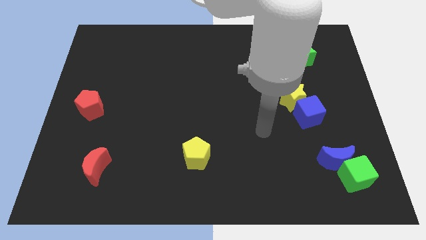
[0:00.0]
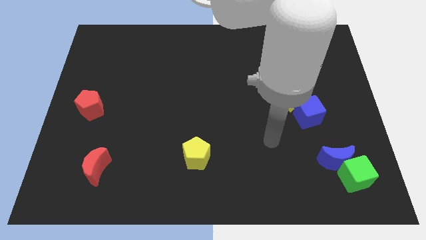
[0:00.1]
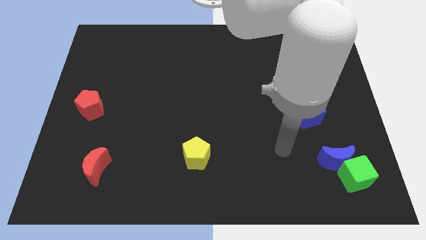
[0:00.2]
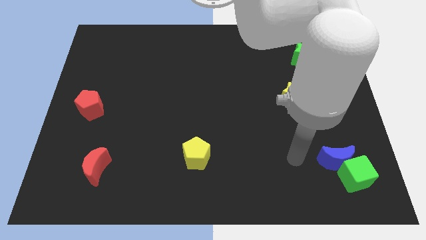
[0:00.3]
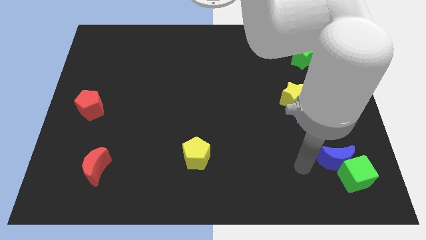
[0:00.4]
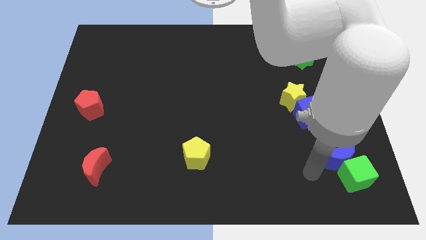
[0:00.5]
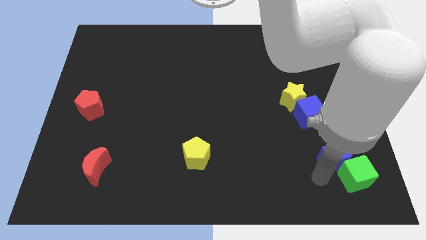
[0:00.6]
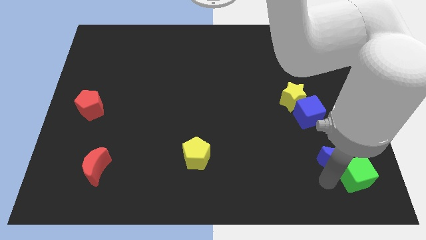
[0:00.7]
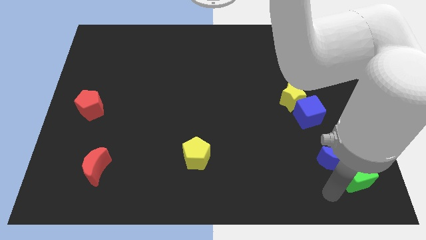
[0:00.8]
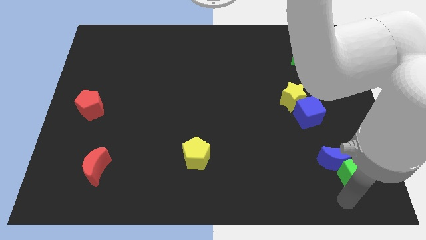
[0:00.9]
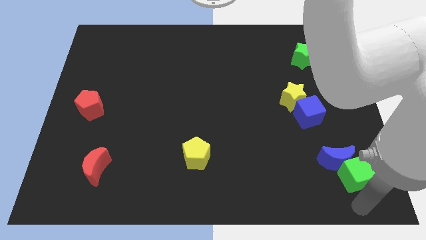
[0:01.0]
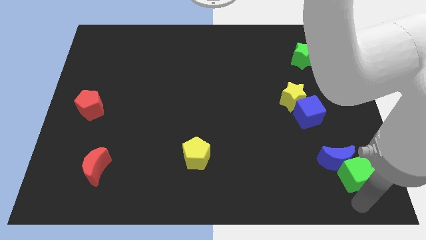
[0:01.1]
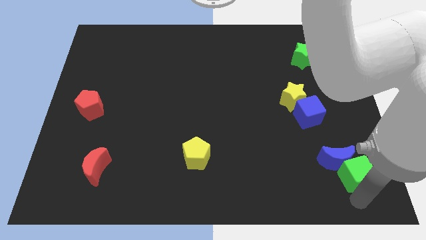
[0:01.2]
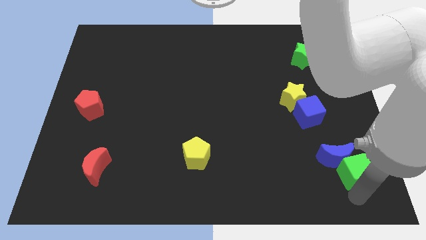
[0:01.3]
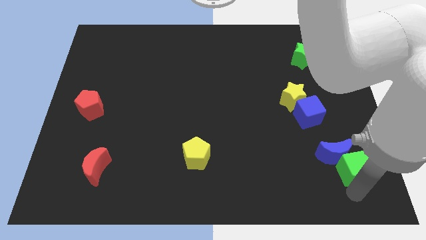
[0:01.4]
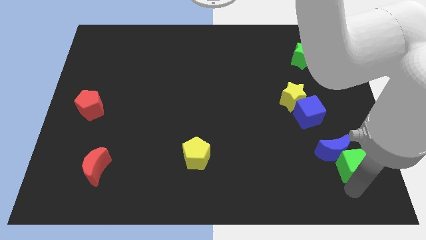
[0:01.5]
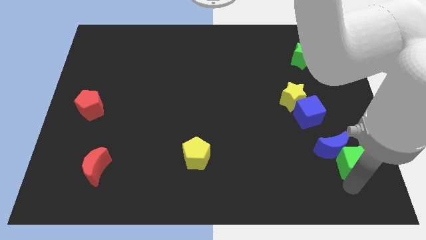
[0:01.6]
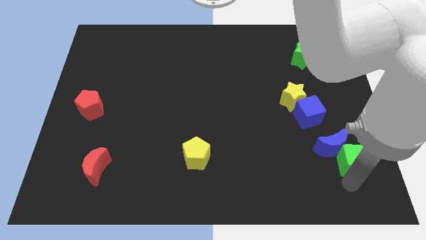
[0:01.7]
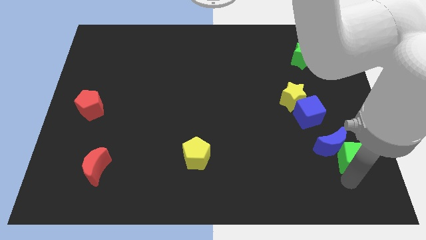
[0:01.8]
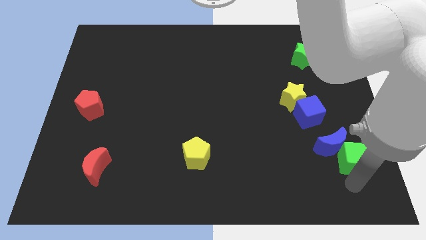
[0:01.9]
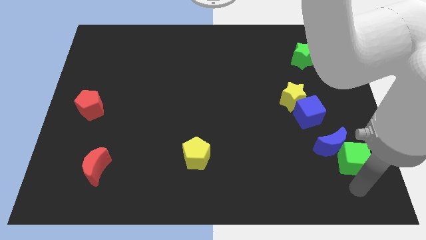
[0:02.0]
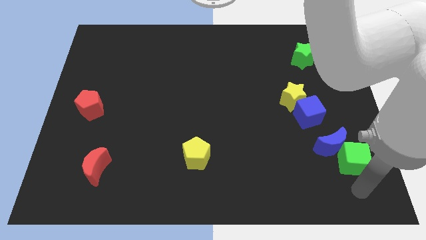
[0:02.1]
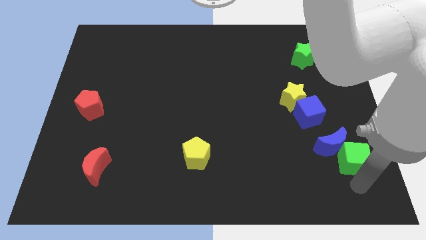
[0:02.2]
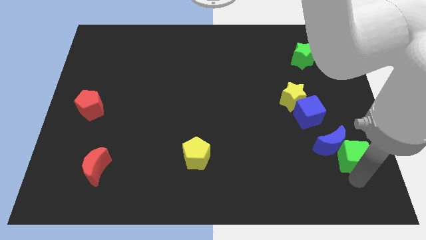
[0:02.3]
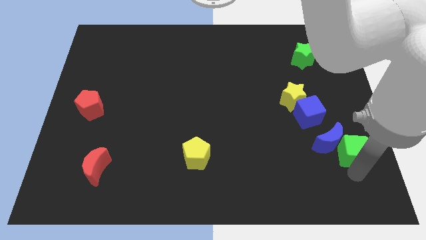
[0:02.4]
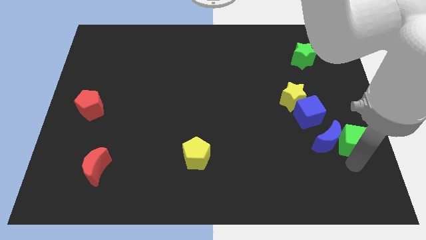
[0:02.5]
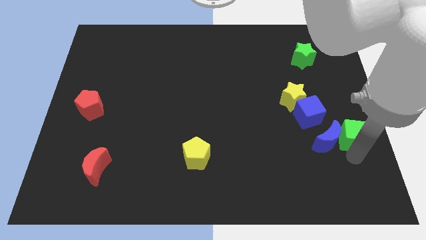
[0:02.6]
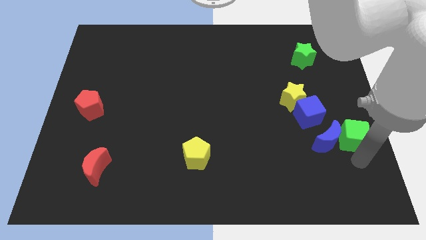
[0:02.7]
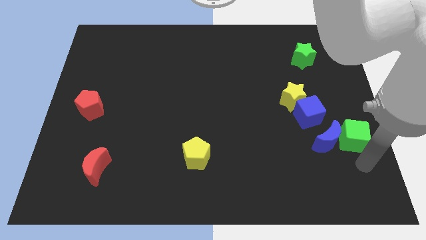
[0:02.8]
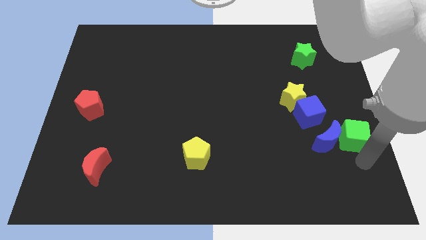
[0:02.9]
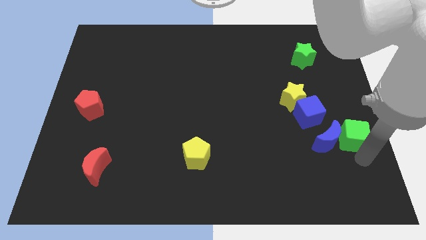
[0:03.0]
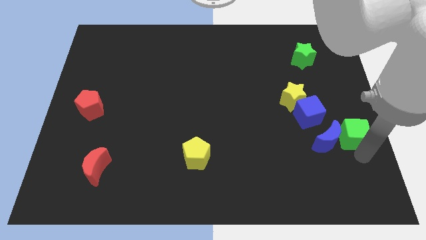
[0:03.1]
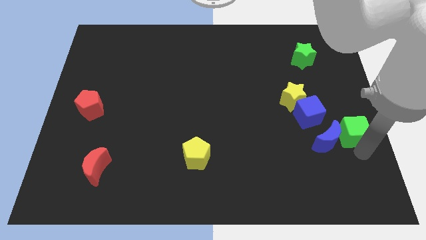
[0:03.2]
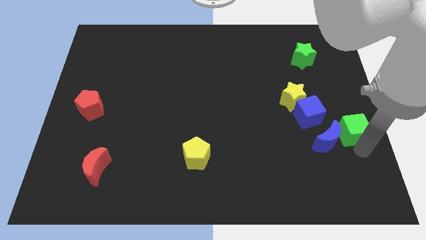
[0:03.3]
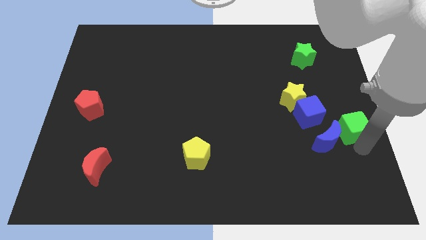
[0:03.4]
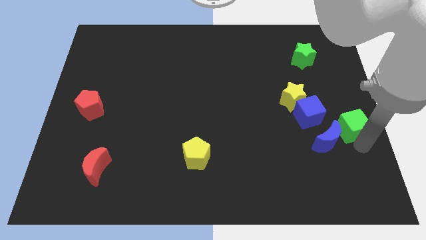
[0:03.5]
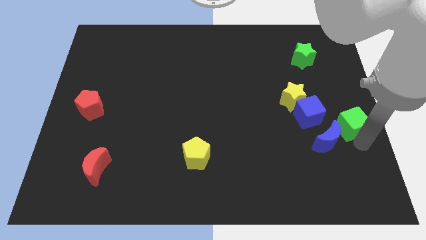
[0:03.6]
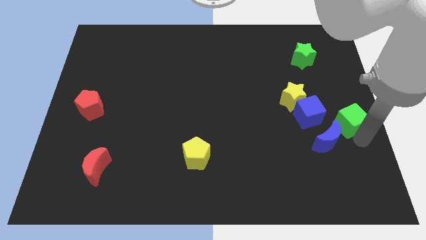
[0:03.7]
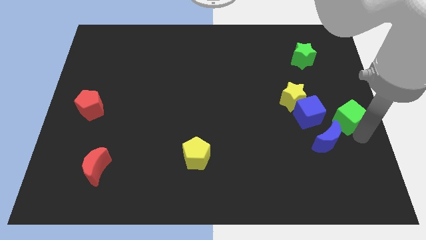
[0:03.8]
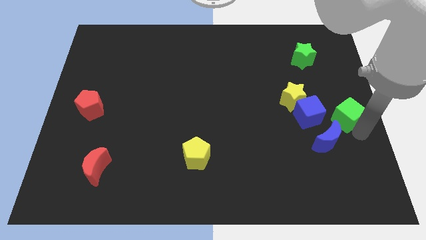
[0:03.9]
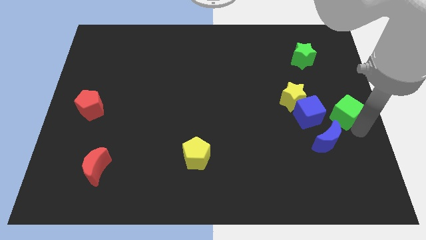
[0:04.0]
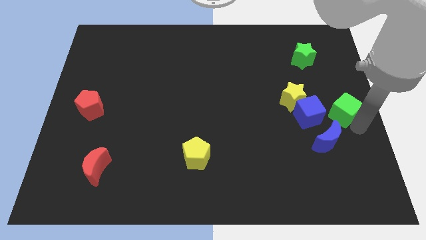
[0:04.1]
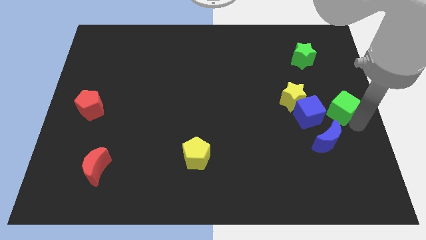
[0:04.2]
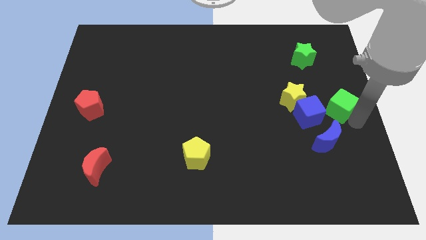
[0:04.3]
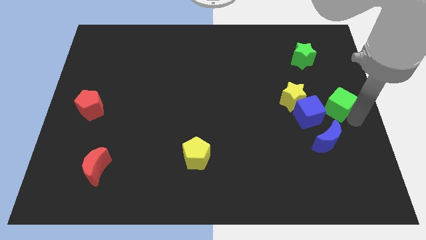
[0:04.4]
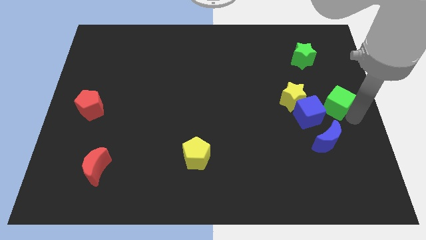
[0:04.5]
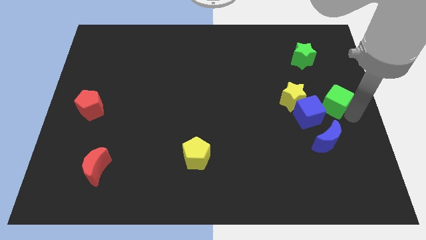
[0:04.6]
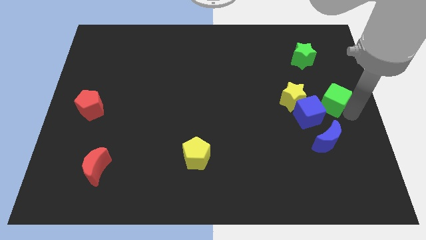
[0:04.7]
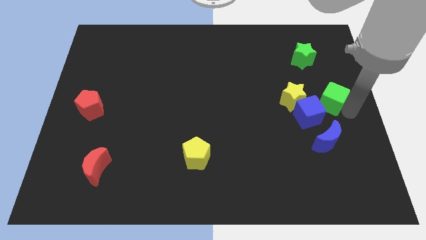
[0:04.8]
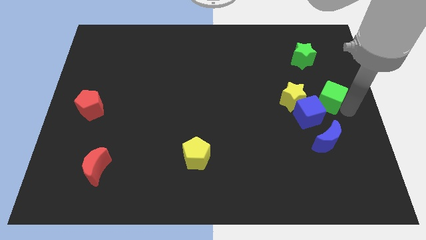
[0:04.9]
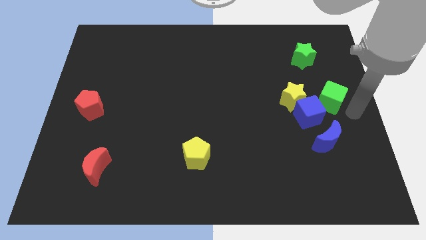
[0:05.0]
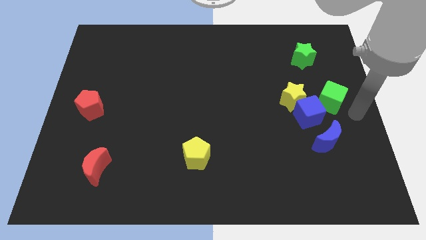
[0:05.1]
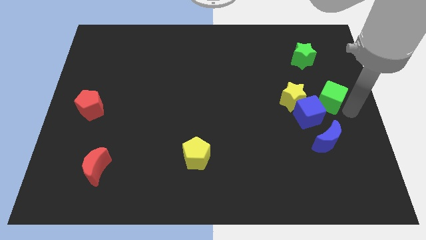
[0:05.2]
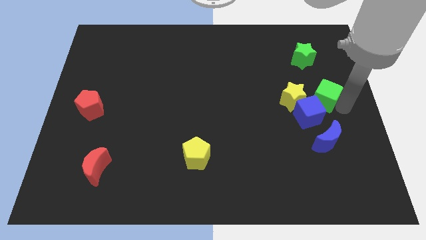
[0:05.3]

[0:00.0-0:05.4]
slide the green cube below the green star

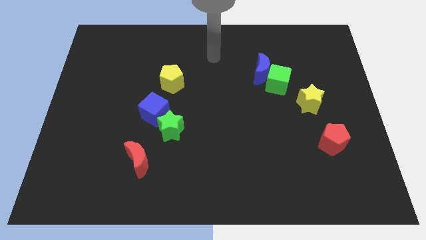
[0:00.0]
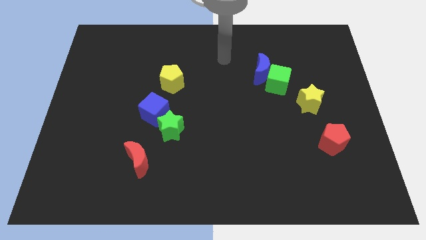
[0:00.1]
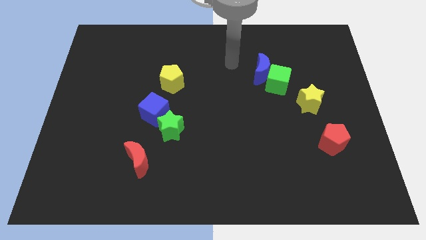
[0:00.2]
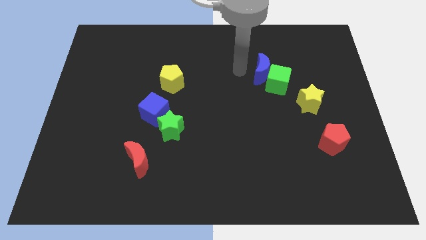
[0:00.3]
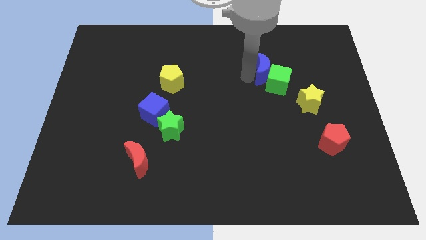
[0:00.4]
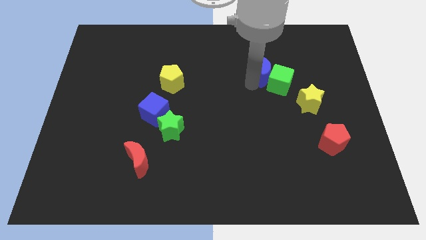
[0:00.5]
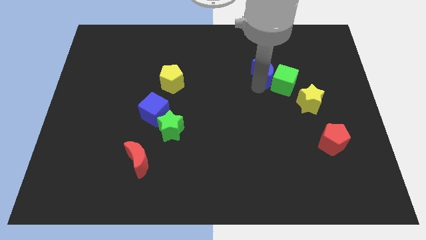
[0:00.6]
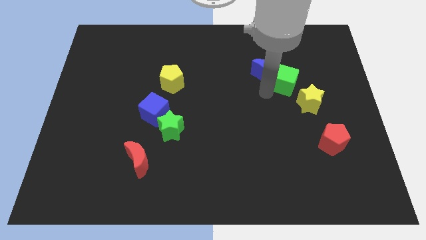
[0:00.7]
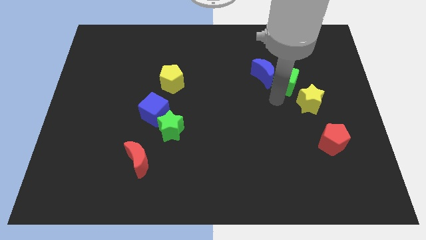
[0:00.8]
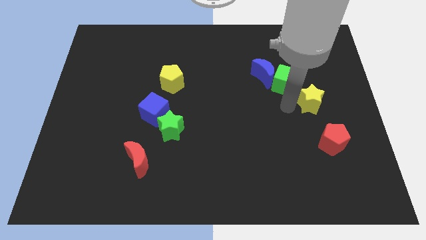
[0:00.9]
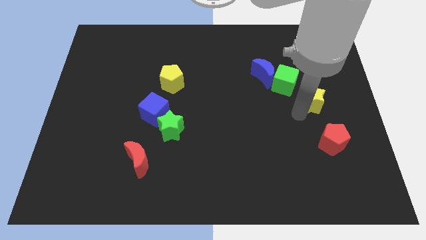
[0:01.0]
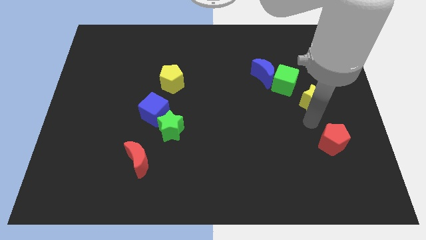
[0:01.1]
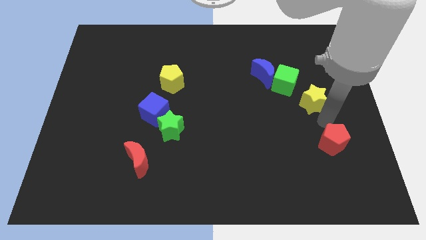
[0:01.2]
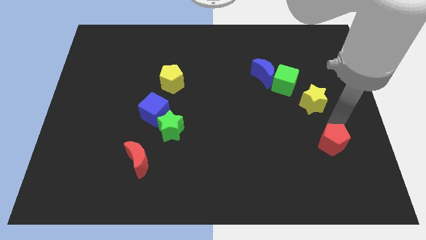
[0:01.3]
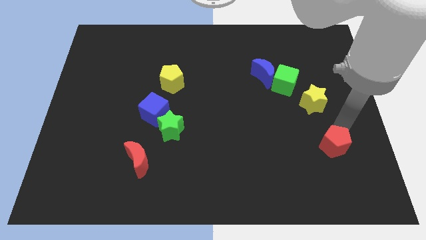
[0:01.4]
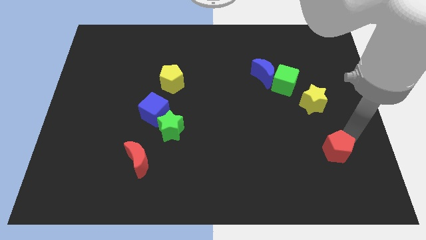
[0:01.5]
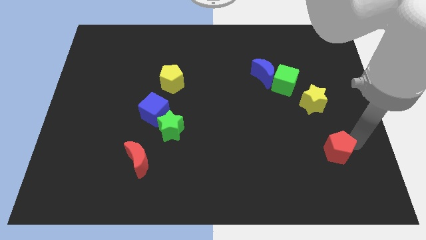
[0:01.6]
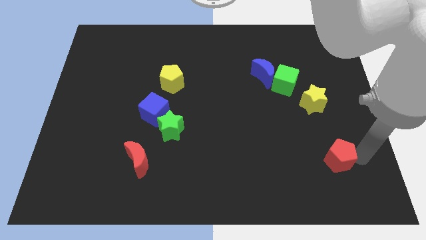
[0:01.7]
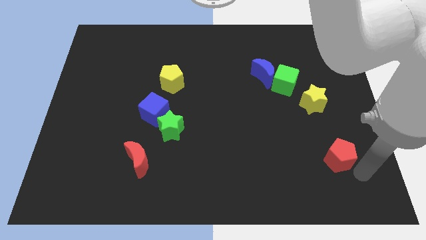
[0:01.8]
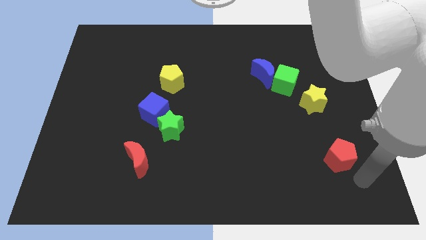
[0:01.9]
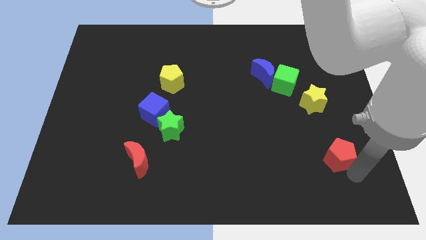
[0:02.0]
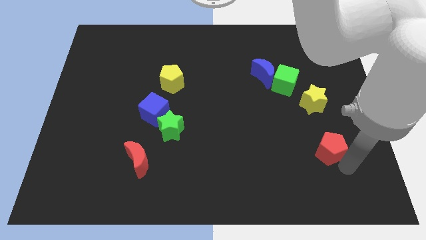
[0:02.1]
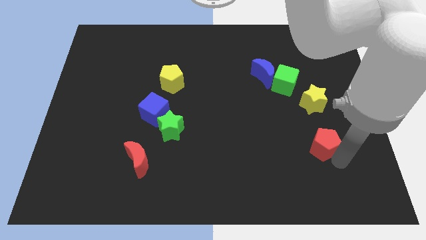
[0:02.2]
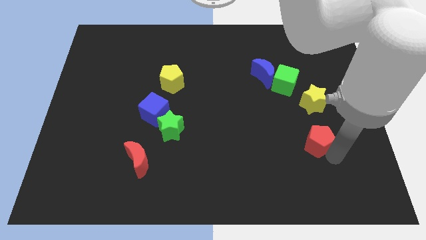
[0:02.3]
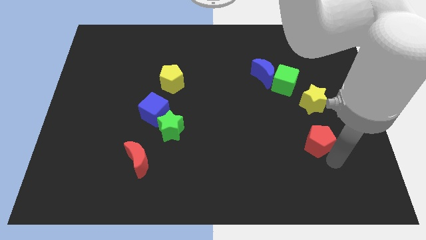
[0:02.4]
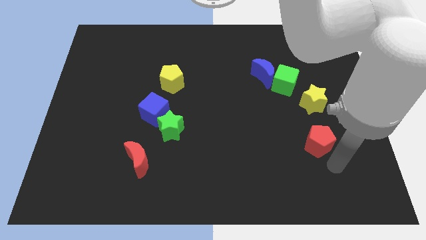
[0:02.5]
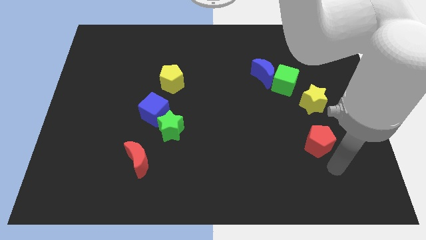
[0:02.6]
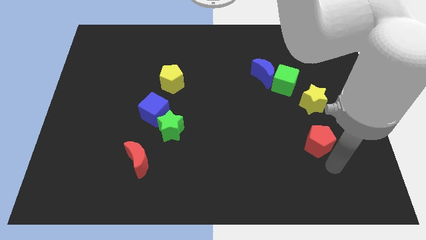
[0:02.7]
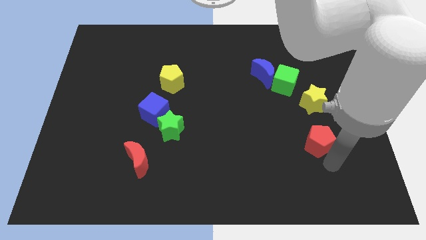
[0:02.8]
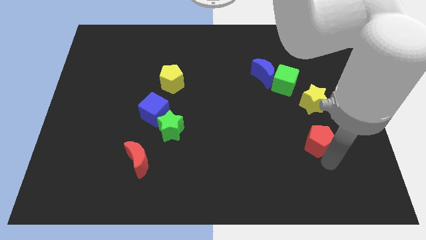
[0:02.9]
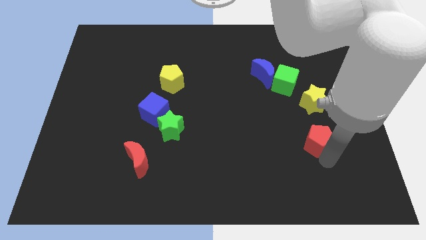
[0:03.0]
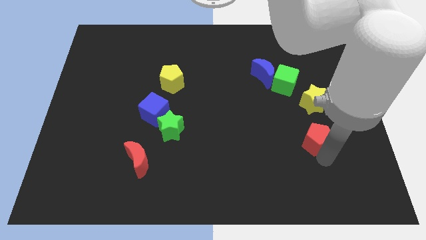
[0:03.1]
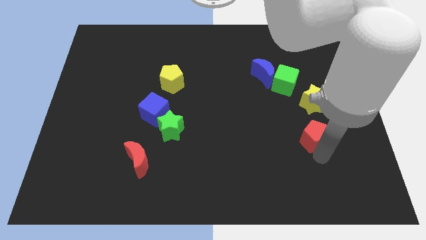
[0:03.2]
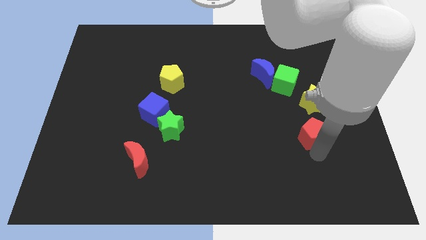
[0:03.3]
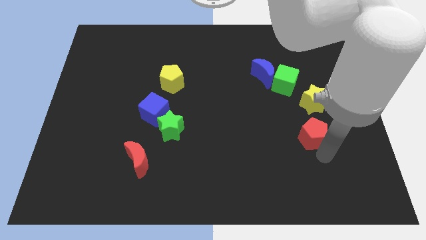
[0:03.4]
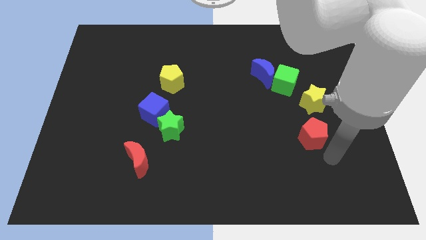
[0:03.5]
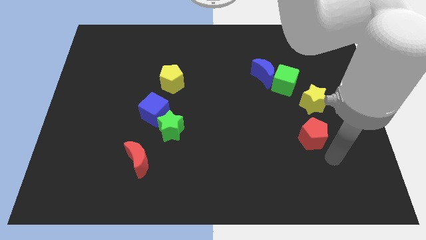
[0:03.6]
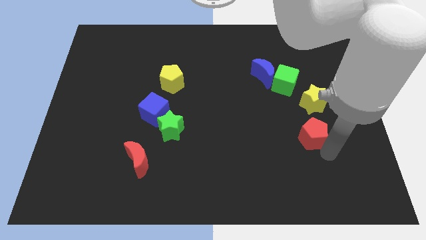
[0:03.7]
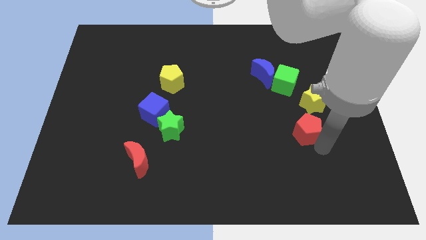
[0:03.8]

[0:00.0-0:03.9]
move the red pentagon to the bottom of the green cube
